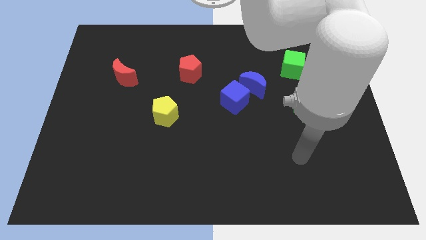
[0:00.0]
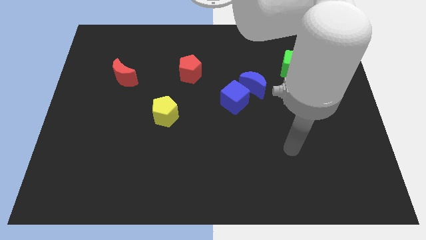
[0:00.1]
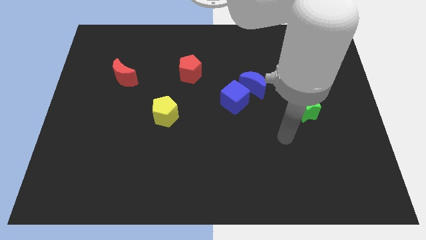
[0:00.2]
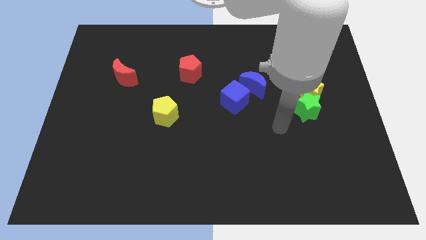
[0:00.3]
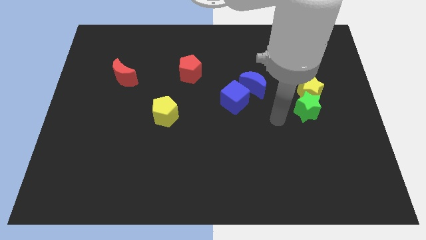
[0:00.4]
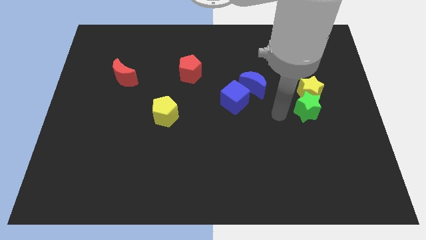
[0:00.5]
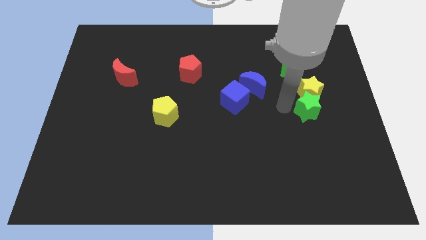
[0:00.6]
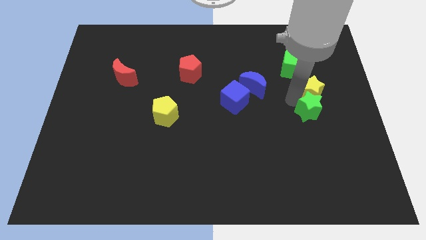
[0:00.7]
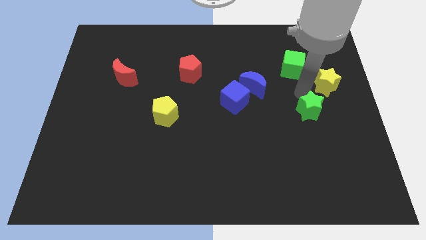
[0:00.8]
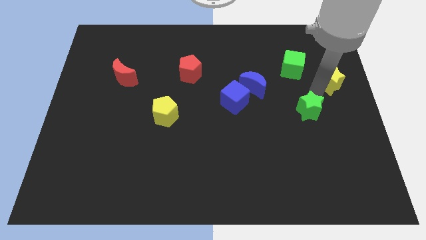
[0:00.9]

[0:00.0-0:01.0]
pull the green star apart from the yellow star

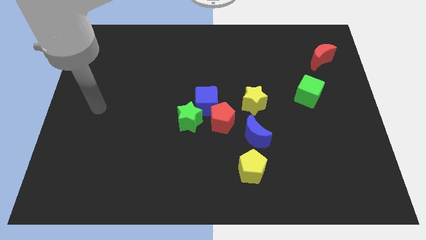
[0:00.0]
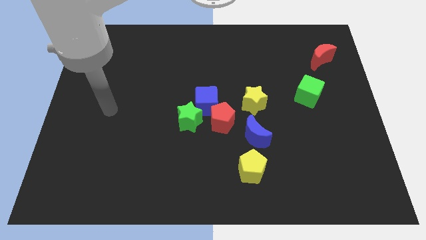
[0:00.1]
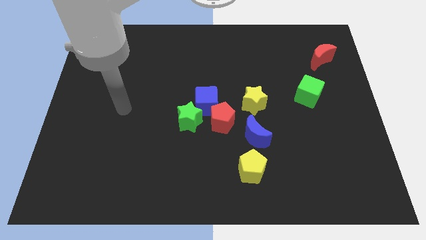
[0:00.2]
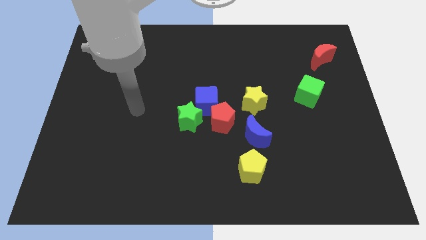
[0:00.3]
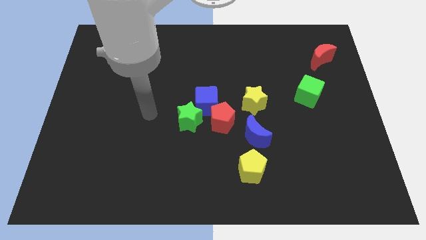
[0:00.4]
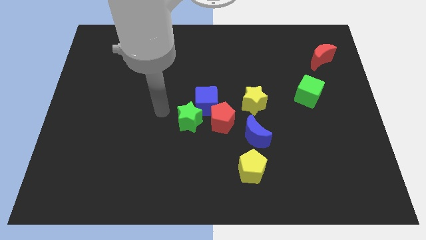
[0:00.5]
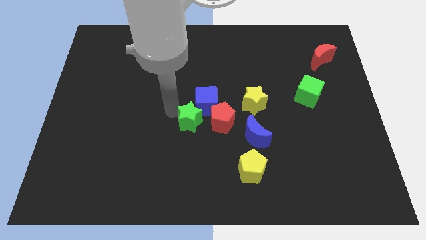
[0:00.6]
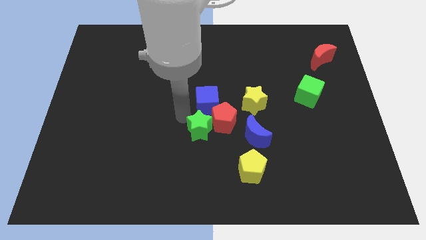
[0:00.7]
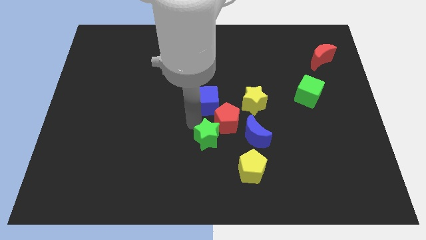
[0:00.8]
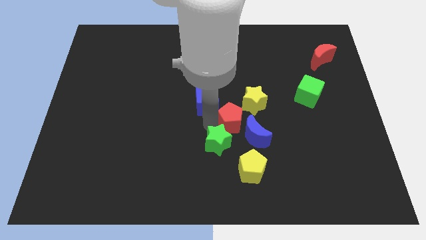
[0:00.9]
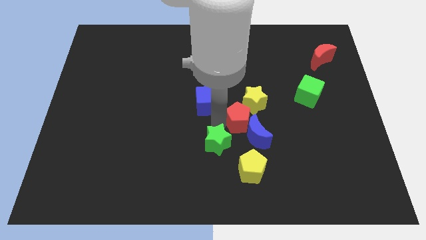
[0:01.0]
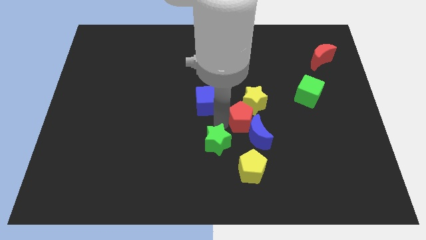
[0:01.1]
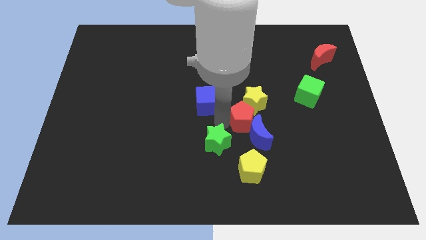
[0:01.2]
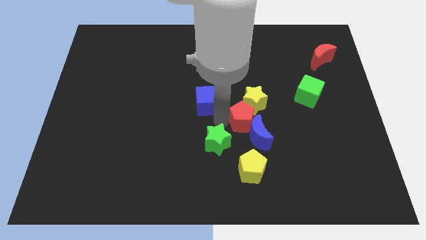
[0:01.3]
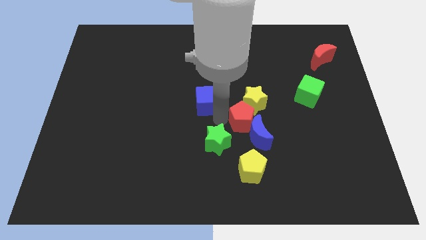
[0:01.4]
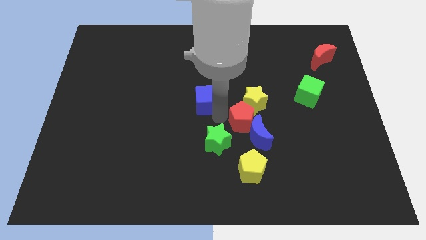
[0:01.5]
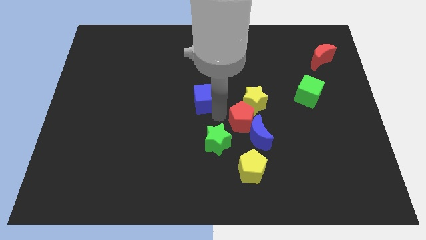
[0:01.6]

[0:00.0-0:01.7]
separate the blue cube from the red pentagon and green star

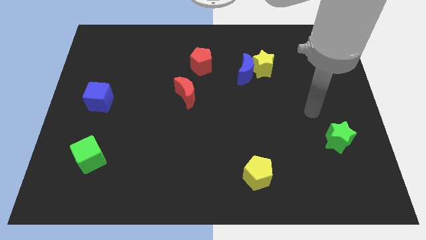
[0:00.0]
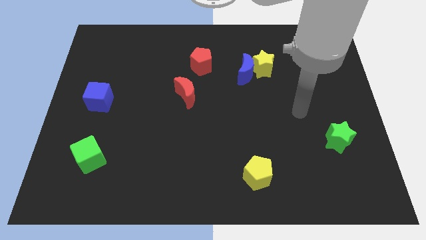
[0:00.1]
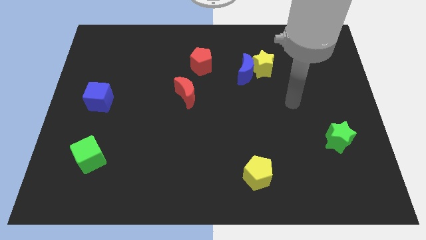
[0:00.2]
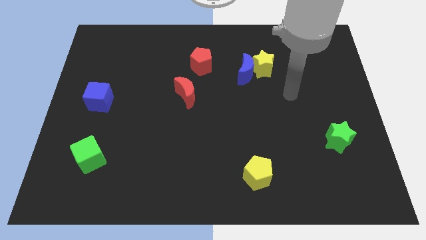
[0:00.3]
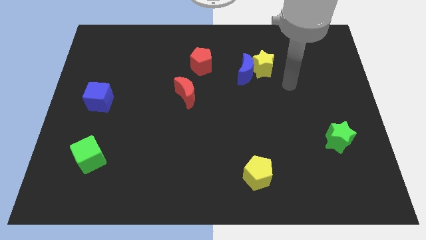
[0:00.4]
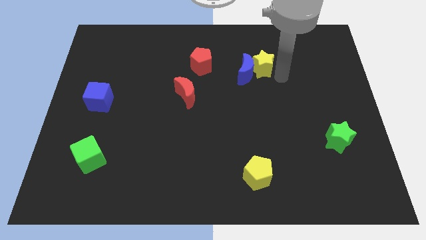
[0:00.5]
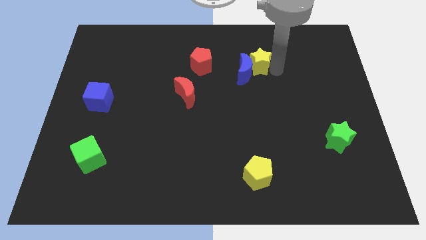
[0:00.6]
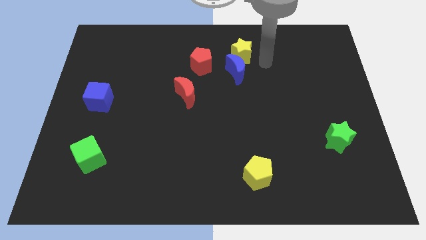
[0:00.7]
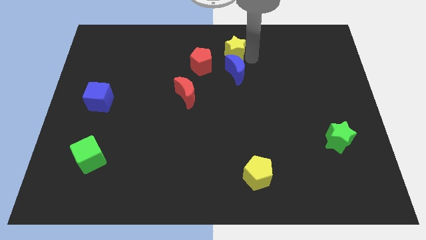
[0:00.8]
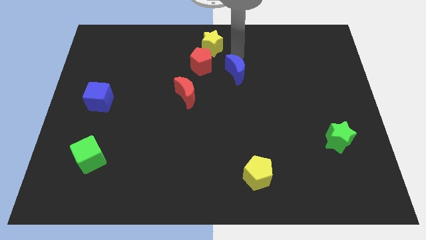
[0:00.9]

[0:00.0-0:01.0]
pull the blue moon apart from the yellow star

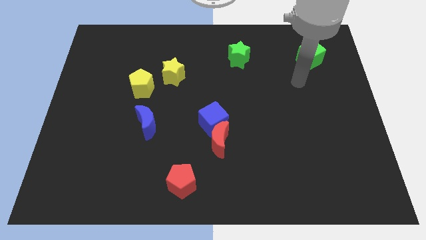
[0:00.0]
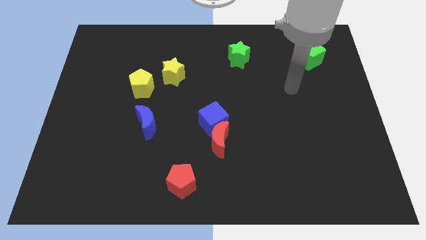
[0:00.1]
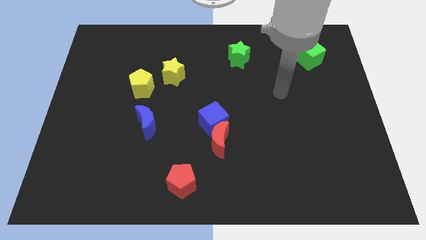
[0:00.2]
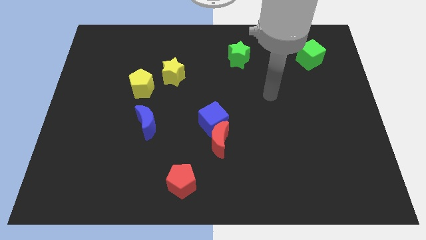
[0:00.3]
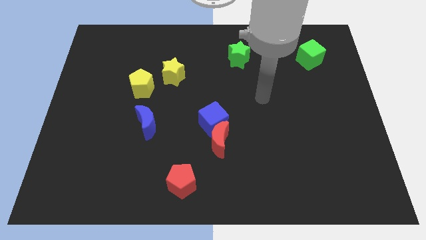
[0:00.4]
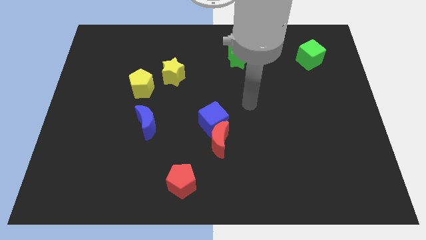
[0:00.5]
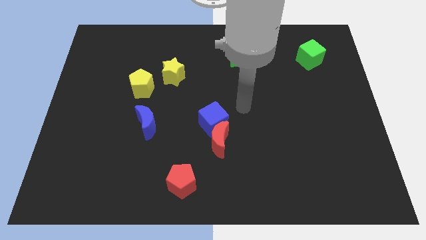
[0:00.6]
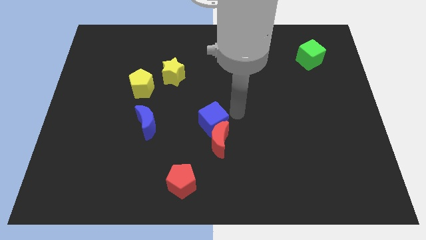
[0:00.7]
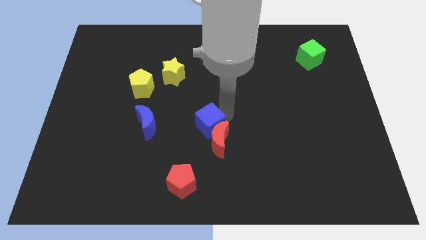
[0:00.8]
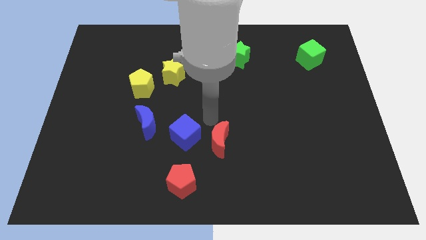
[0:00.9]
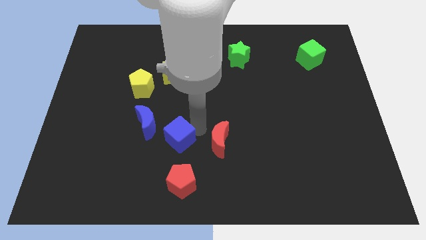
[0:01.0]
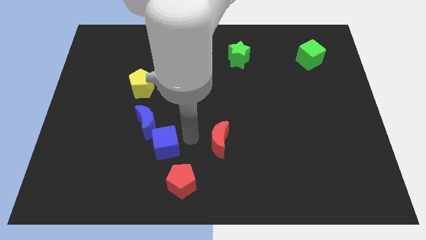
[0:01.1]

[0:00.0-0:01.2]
move the red moon away from the blue cube

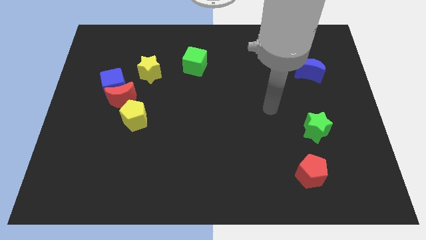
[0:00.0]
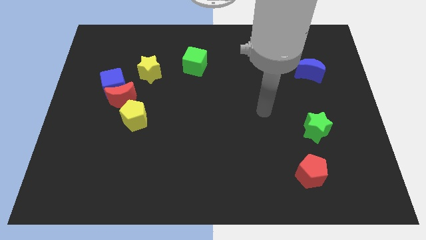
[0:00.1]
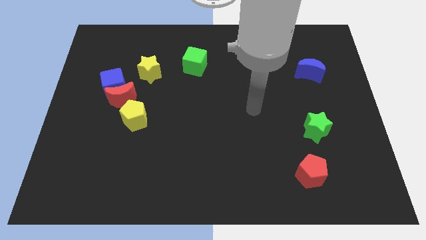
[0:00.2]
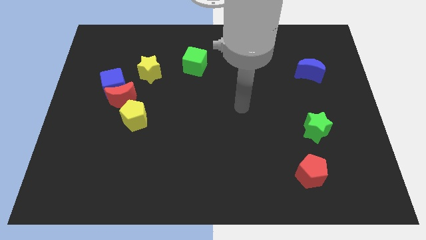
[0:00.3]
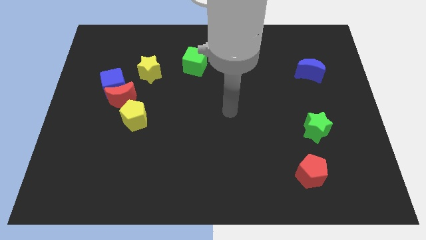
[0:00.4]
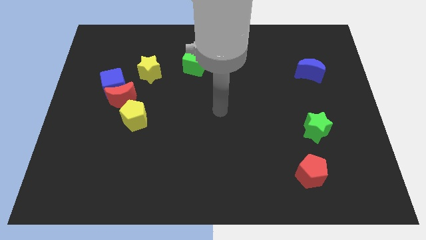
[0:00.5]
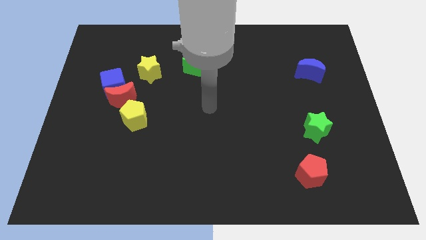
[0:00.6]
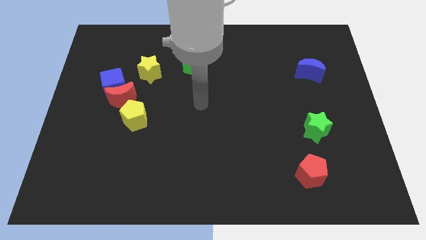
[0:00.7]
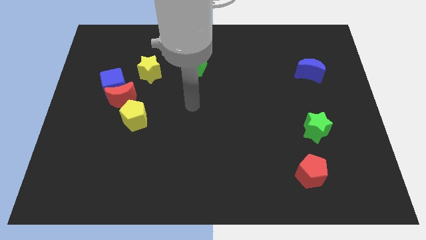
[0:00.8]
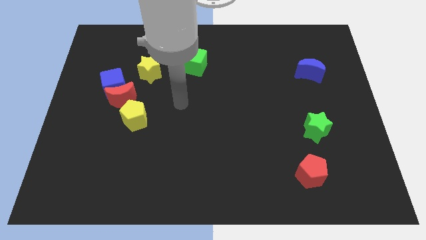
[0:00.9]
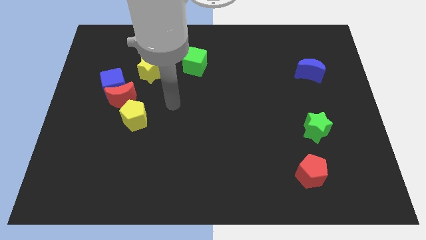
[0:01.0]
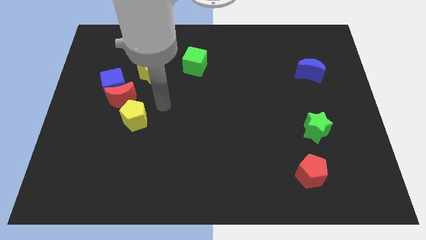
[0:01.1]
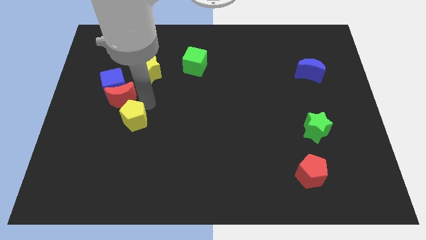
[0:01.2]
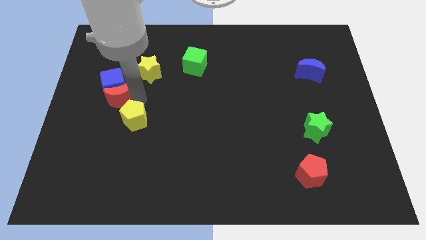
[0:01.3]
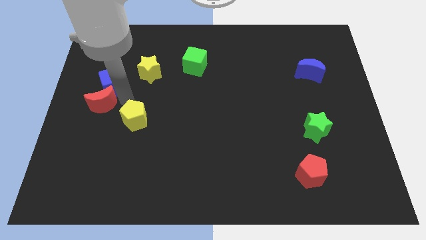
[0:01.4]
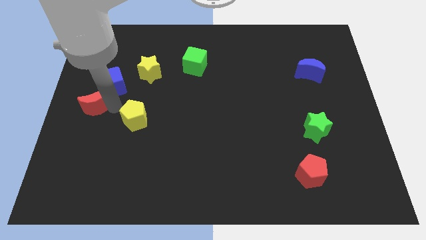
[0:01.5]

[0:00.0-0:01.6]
separate the yellow pentagon from the red moon

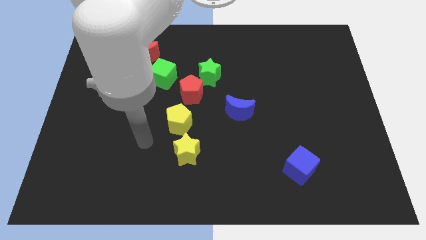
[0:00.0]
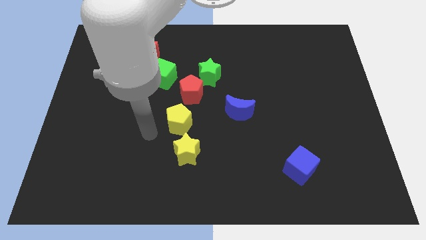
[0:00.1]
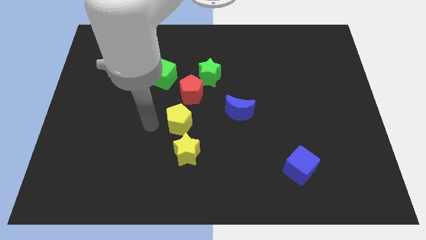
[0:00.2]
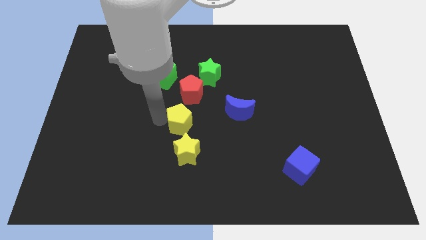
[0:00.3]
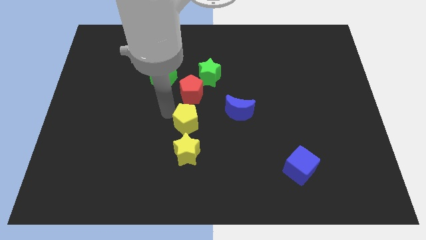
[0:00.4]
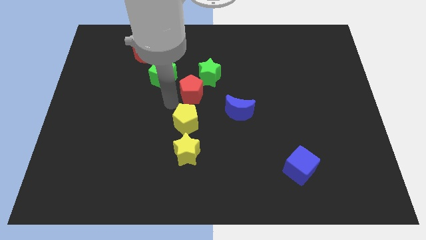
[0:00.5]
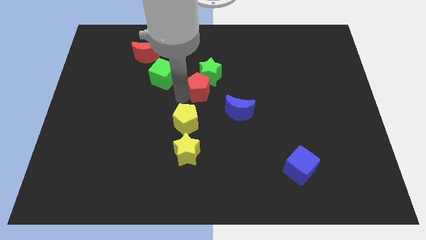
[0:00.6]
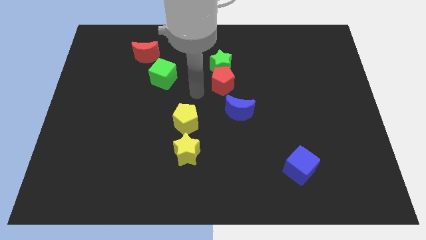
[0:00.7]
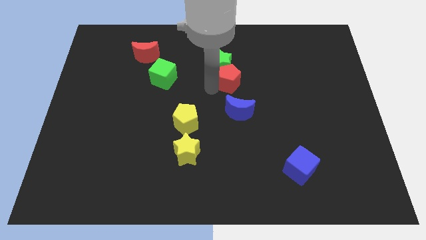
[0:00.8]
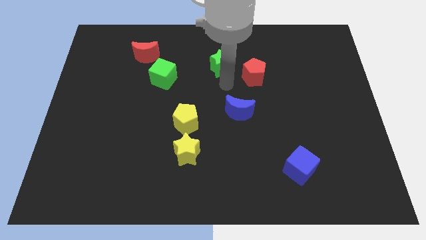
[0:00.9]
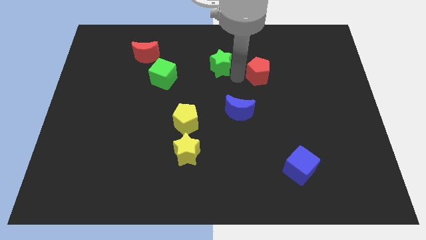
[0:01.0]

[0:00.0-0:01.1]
pull the green star apart from the red pentagon

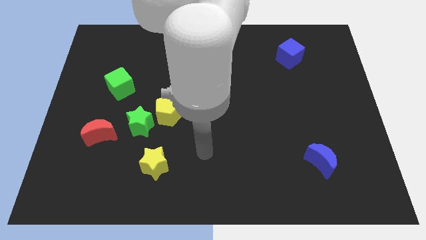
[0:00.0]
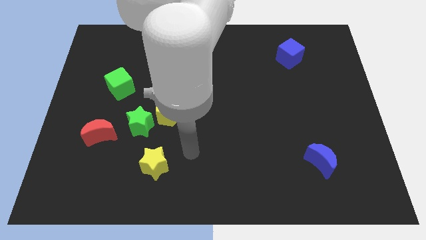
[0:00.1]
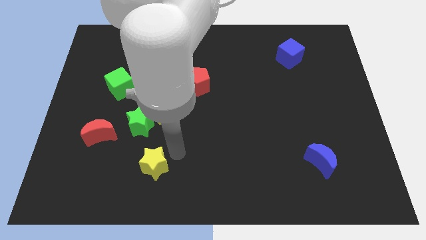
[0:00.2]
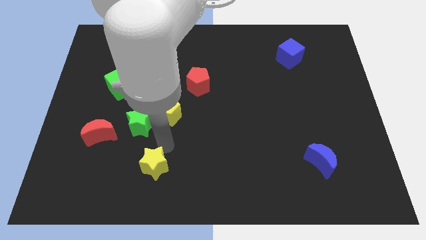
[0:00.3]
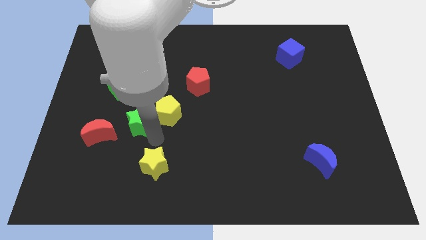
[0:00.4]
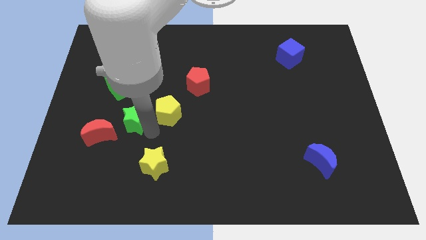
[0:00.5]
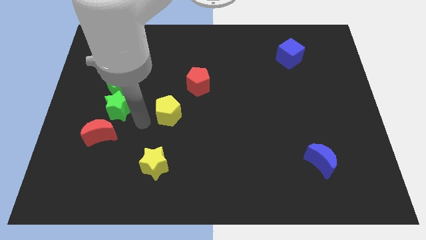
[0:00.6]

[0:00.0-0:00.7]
move the yellow pentagon away from the green star

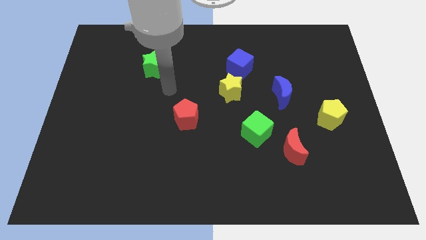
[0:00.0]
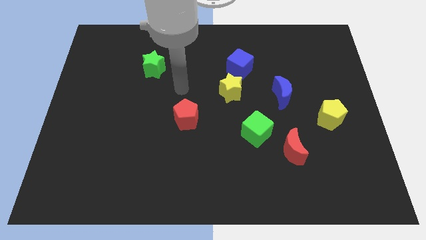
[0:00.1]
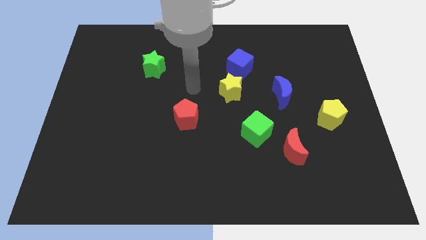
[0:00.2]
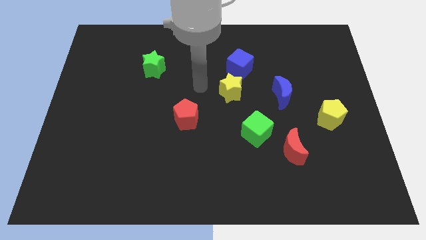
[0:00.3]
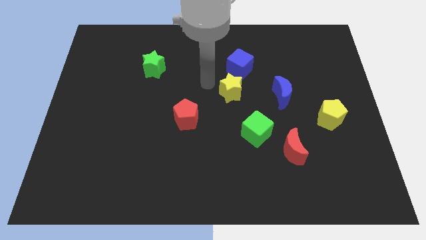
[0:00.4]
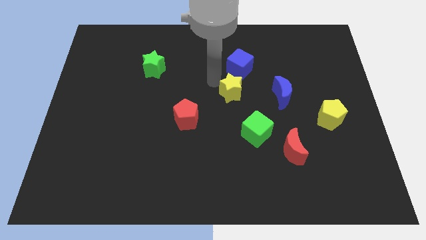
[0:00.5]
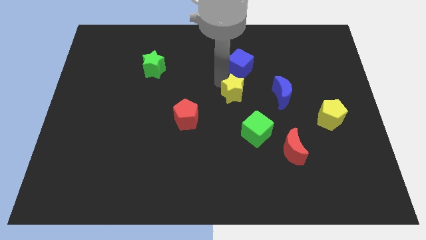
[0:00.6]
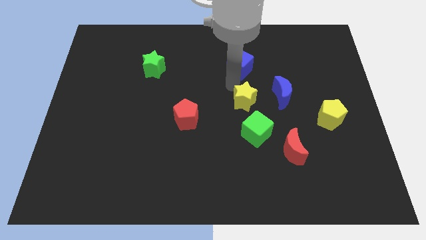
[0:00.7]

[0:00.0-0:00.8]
pull the blue cube apart from the yellow star
